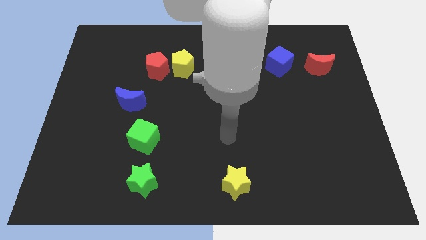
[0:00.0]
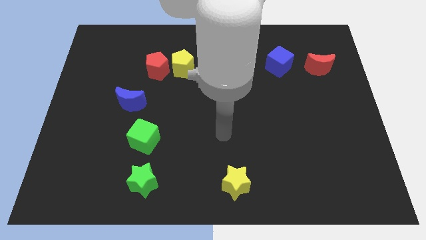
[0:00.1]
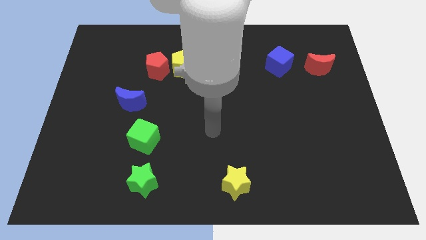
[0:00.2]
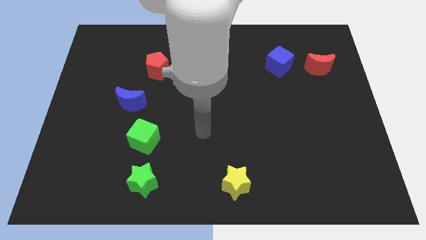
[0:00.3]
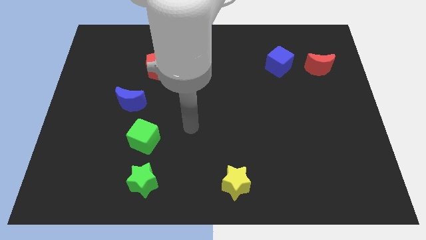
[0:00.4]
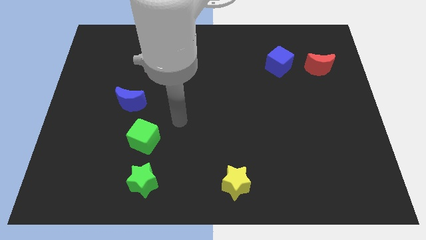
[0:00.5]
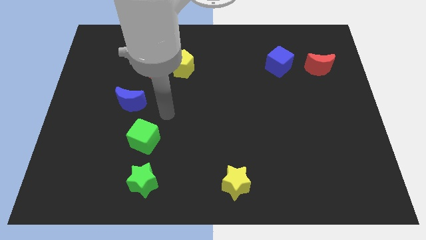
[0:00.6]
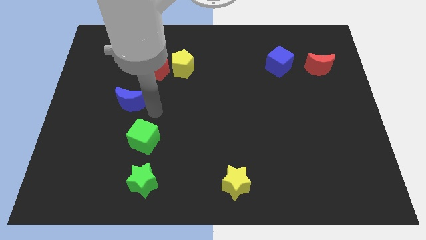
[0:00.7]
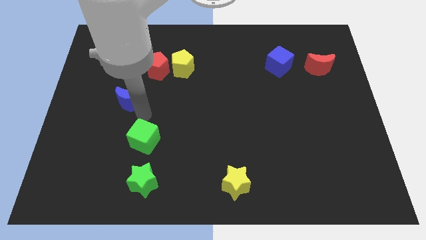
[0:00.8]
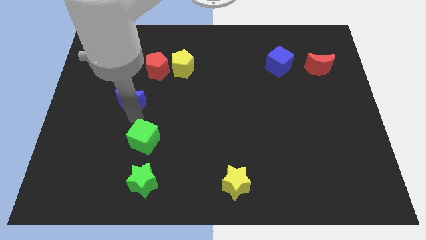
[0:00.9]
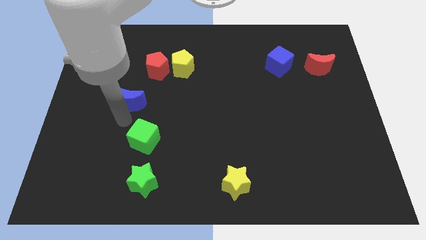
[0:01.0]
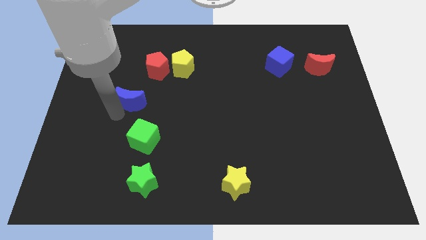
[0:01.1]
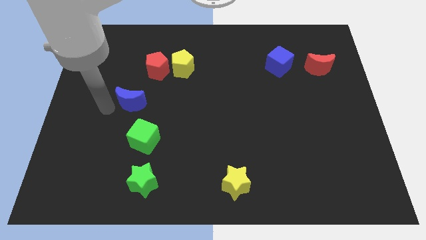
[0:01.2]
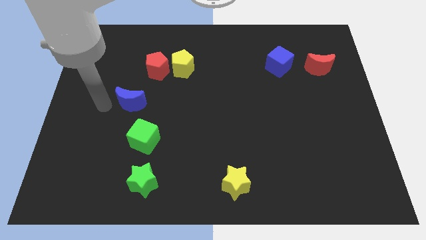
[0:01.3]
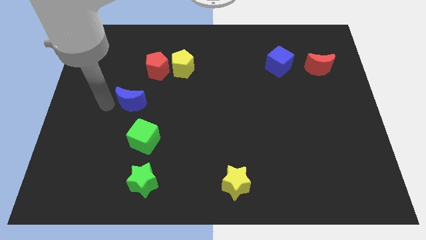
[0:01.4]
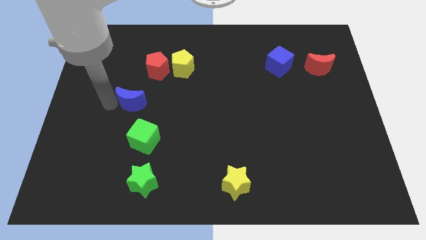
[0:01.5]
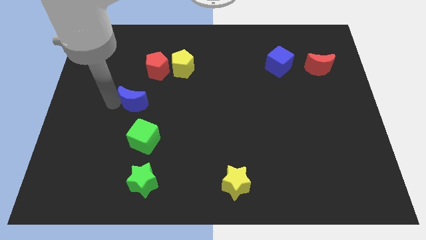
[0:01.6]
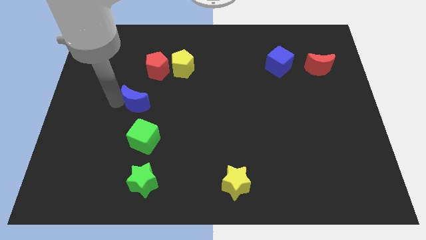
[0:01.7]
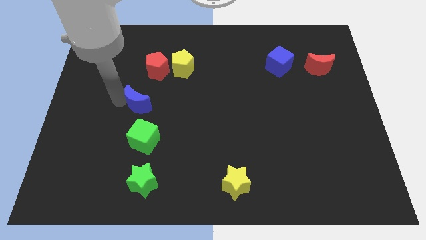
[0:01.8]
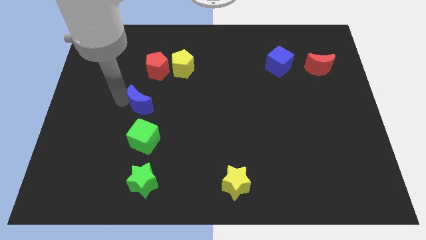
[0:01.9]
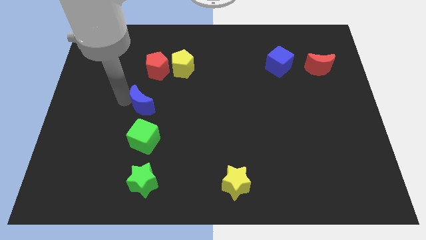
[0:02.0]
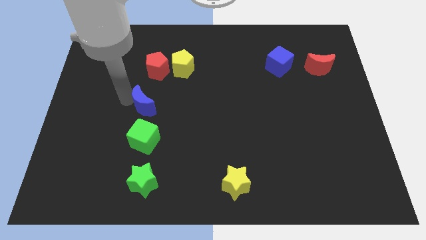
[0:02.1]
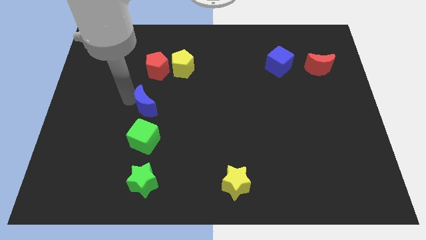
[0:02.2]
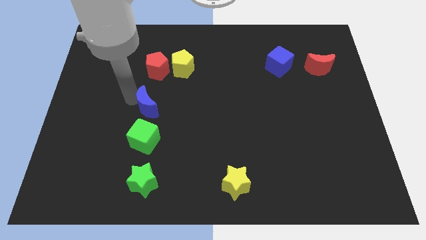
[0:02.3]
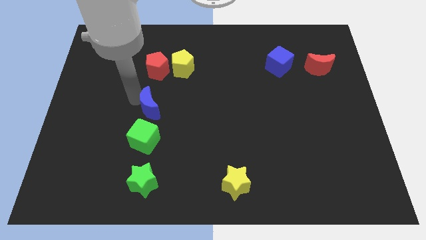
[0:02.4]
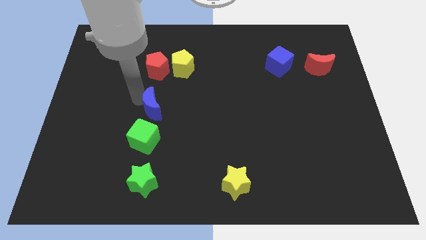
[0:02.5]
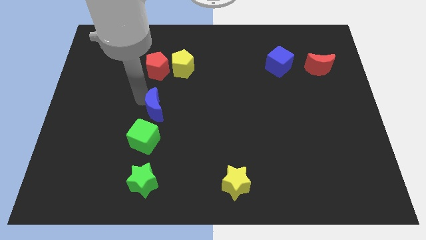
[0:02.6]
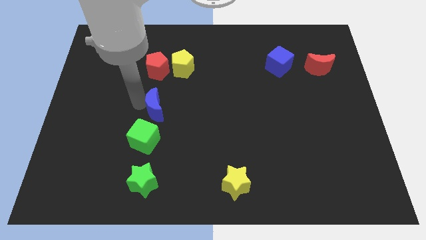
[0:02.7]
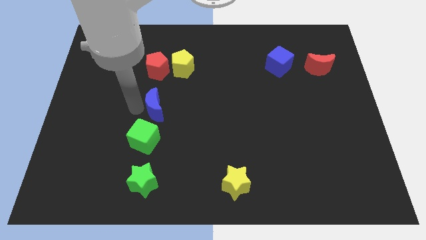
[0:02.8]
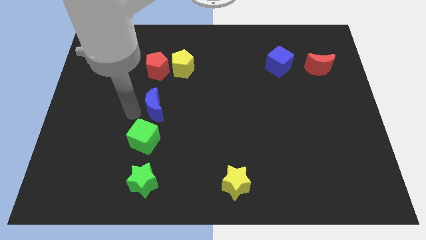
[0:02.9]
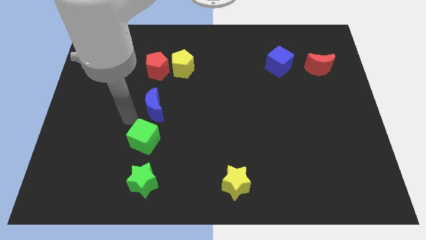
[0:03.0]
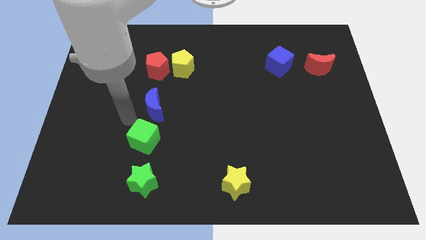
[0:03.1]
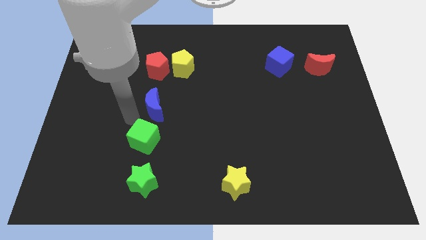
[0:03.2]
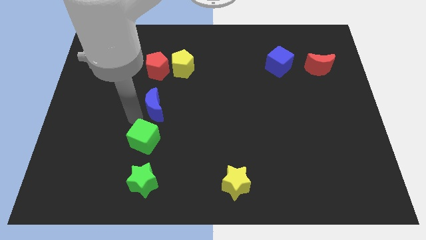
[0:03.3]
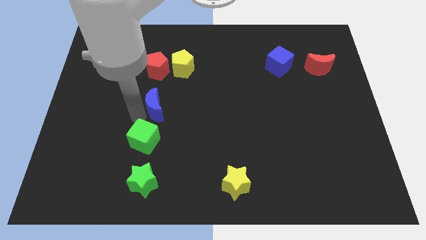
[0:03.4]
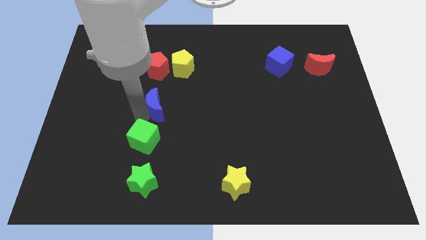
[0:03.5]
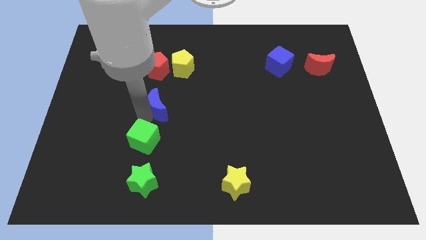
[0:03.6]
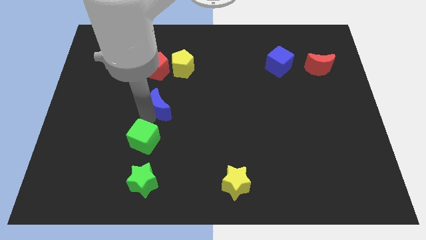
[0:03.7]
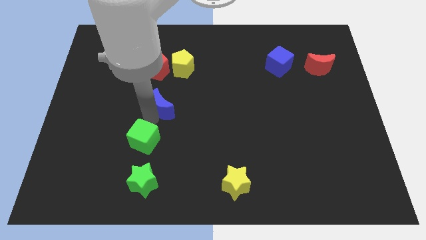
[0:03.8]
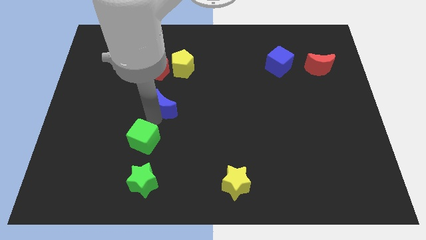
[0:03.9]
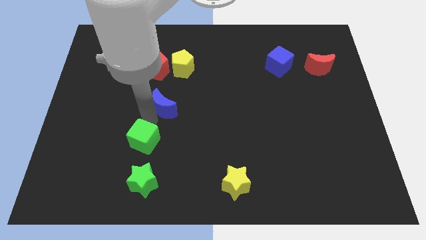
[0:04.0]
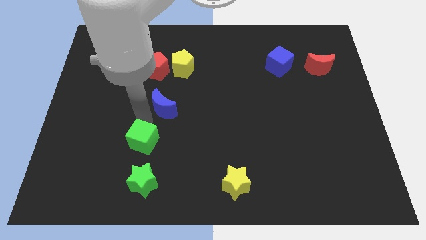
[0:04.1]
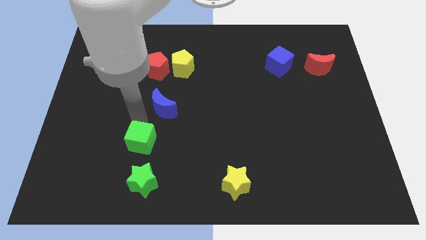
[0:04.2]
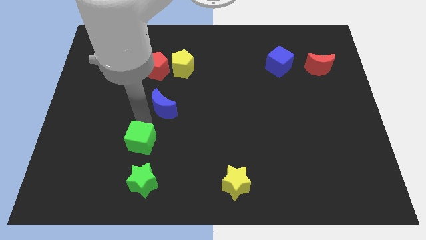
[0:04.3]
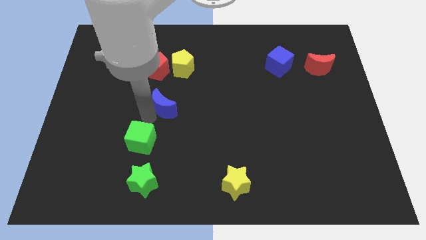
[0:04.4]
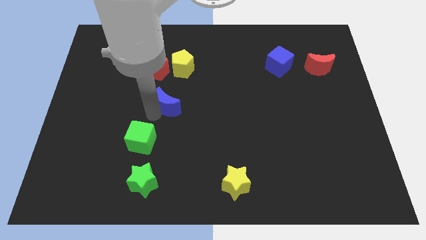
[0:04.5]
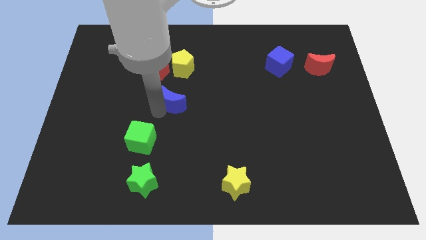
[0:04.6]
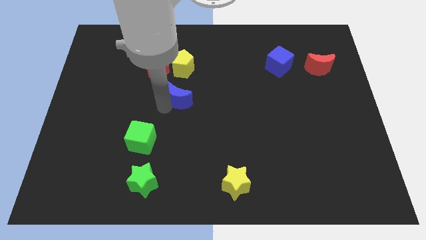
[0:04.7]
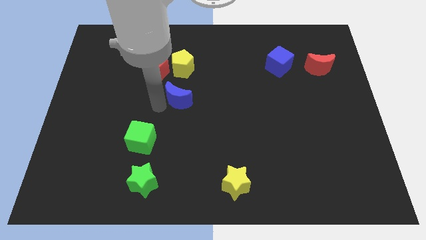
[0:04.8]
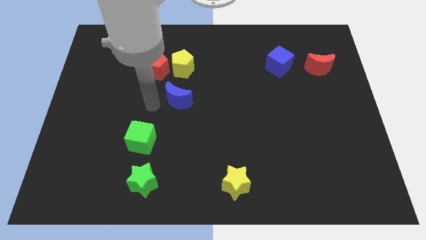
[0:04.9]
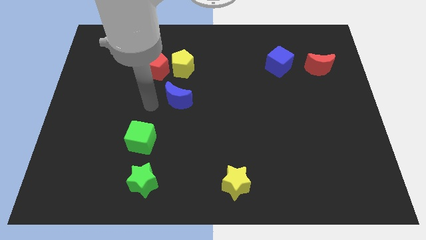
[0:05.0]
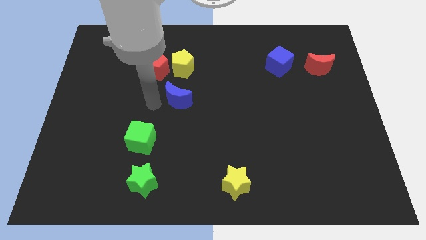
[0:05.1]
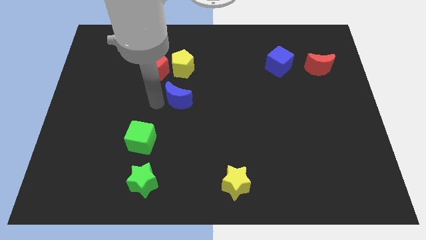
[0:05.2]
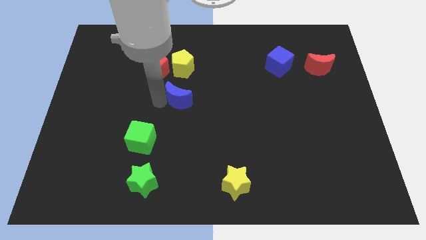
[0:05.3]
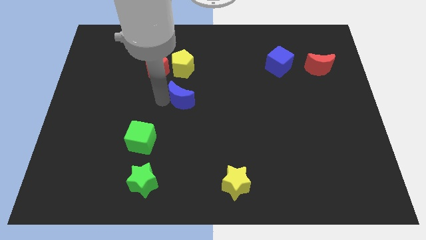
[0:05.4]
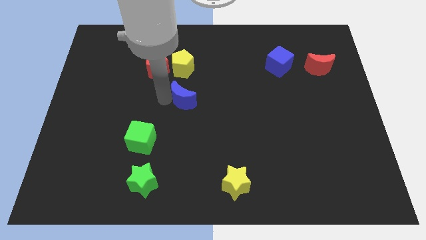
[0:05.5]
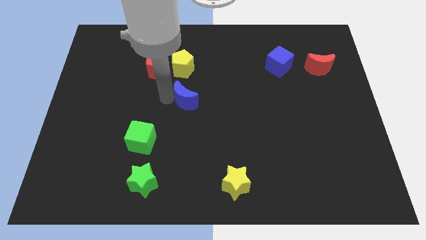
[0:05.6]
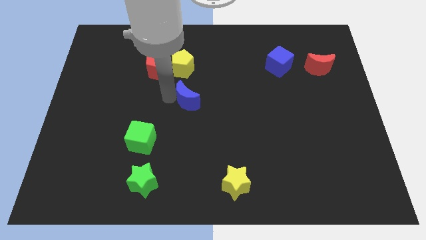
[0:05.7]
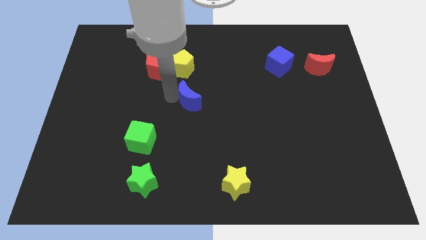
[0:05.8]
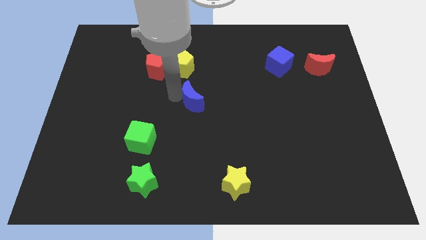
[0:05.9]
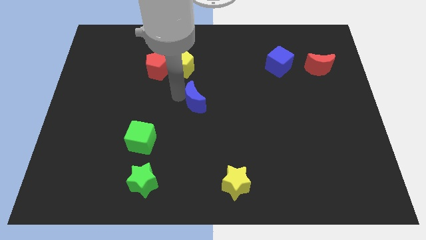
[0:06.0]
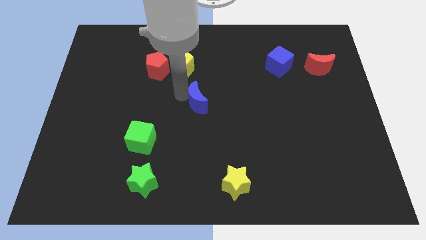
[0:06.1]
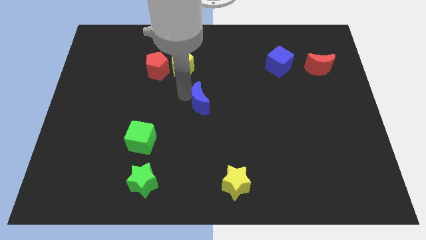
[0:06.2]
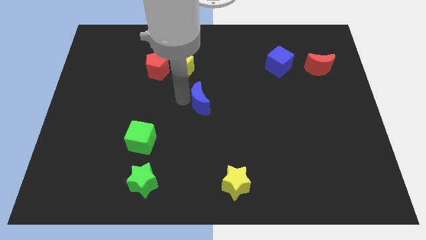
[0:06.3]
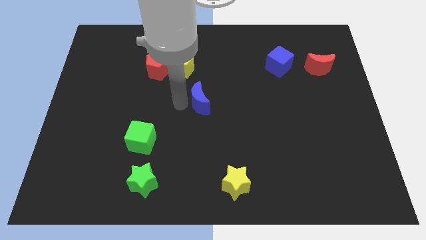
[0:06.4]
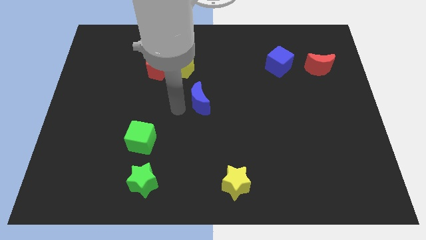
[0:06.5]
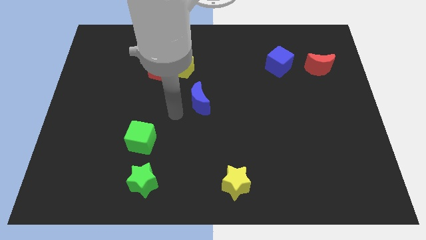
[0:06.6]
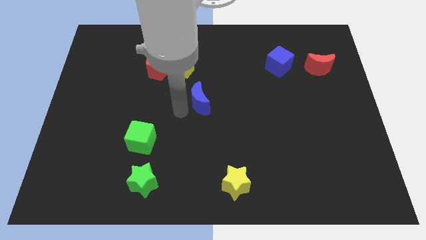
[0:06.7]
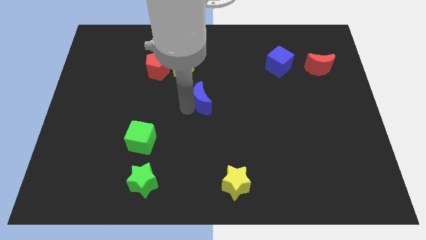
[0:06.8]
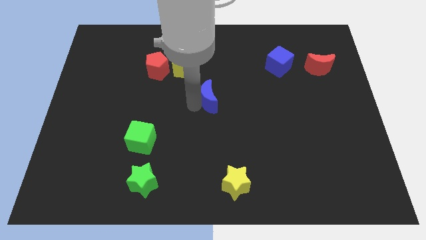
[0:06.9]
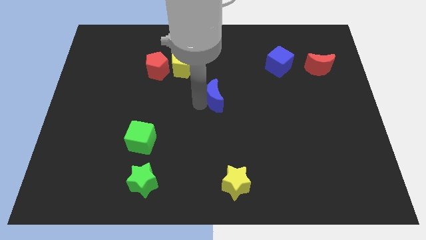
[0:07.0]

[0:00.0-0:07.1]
slide the blue moon to the right

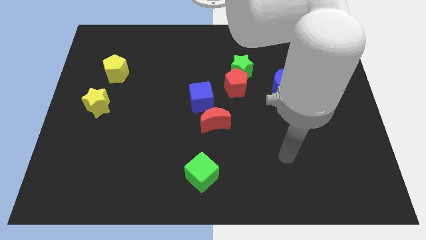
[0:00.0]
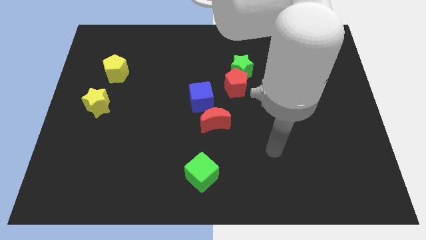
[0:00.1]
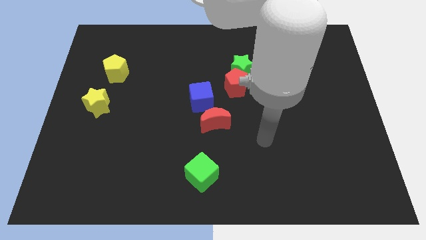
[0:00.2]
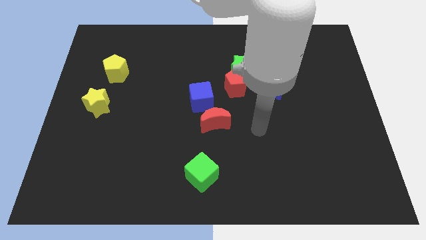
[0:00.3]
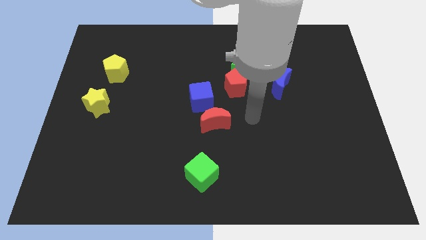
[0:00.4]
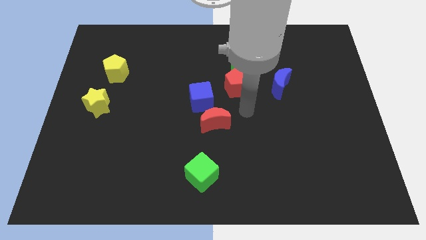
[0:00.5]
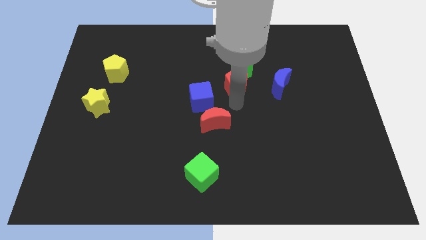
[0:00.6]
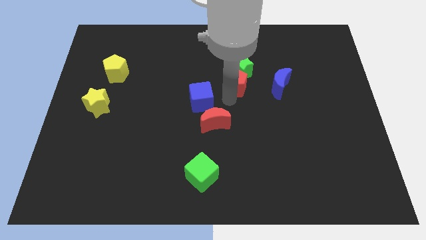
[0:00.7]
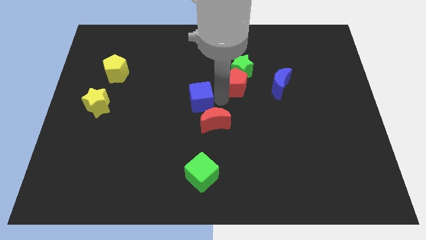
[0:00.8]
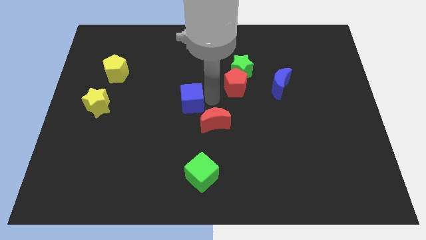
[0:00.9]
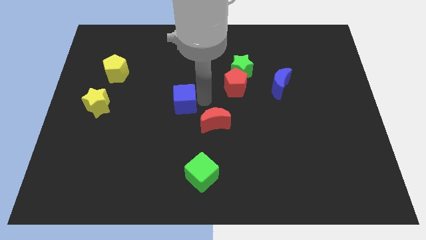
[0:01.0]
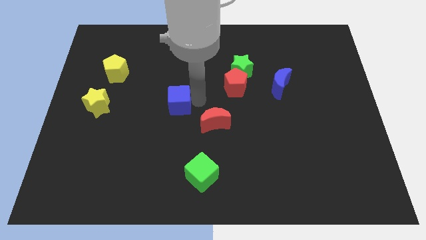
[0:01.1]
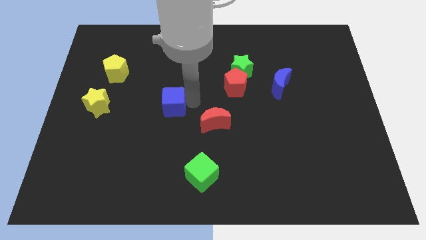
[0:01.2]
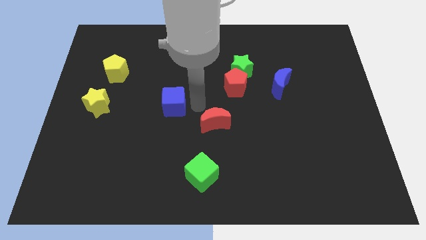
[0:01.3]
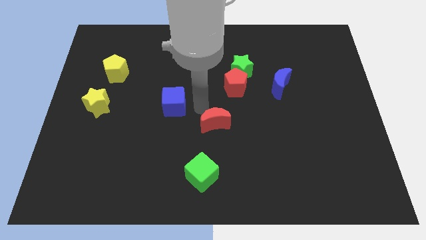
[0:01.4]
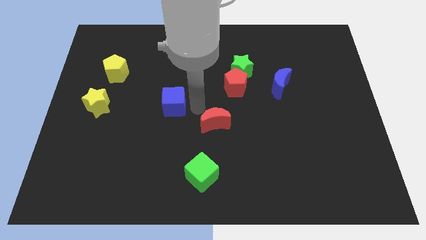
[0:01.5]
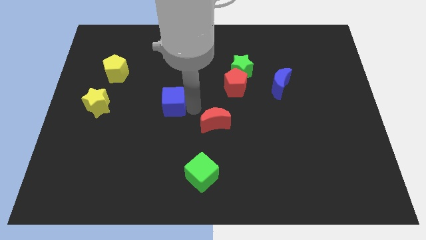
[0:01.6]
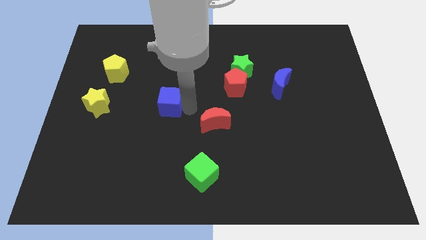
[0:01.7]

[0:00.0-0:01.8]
slide the blue cube left a little
